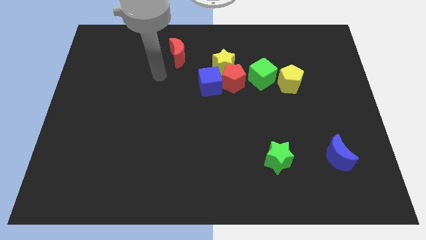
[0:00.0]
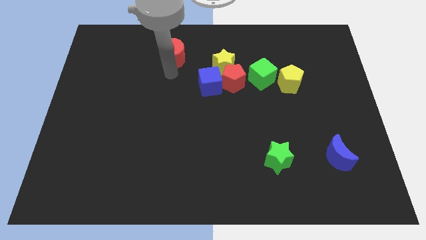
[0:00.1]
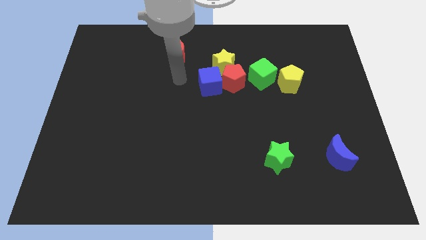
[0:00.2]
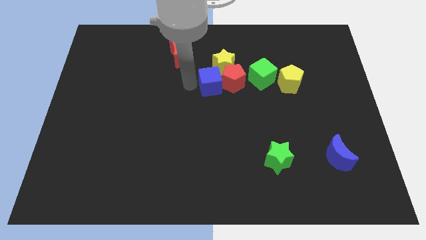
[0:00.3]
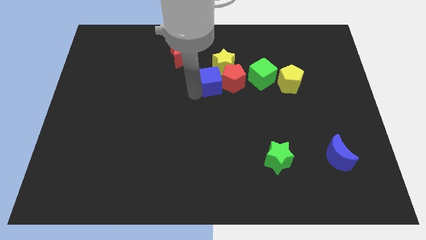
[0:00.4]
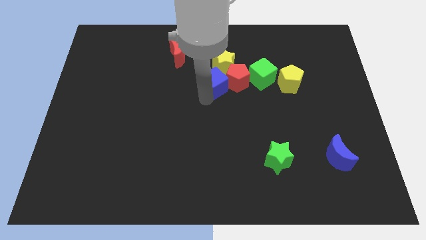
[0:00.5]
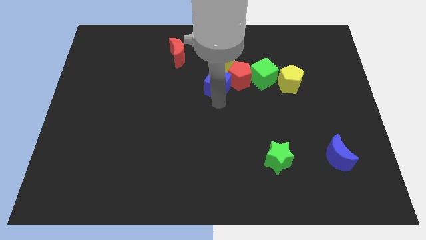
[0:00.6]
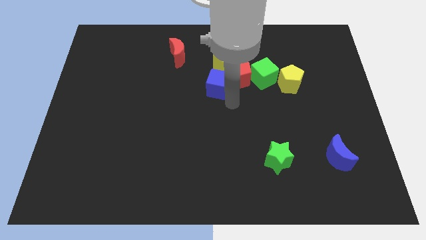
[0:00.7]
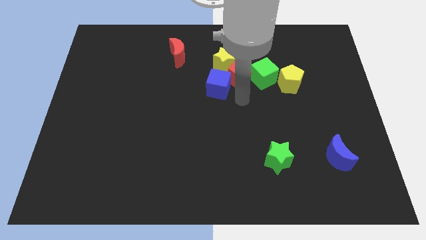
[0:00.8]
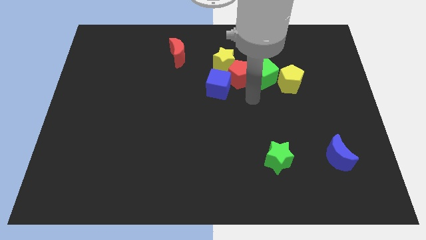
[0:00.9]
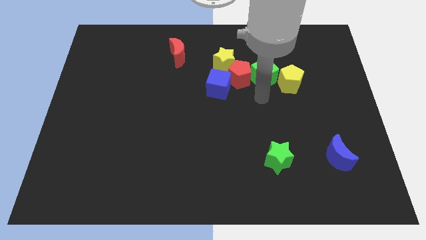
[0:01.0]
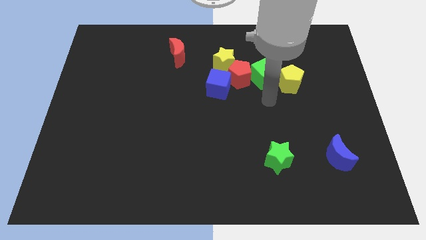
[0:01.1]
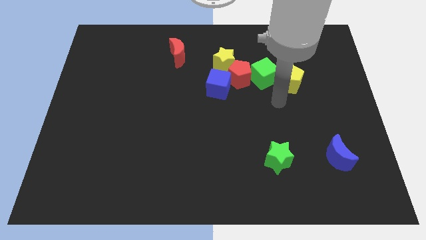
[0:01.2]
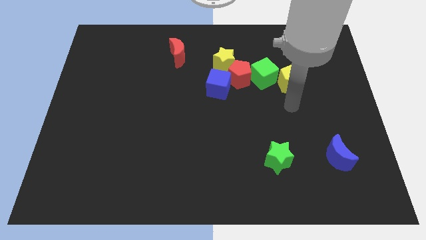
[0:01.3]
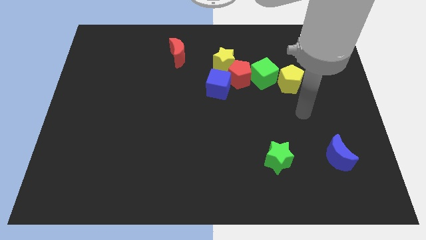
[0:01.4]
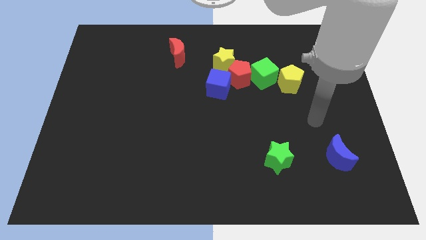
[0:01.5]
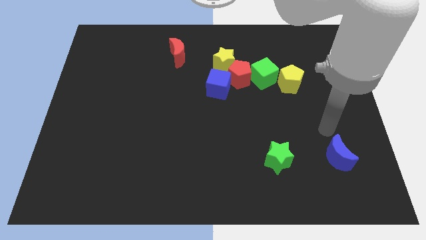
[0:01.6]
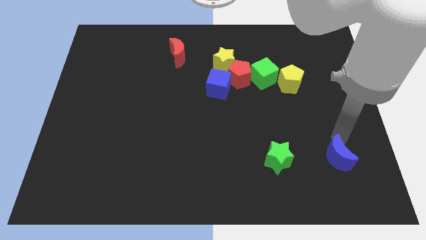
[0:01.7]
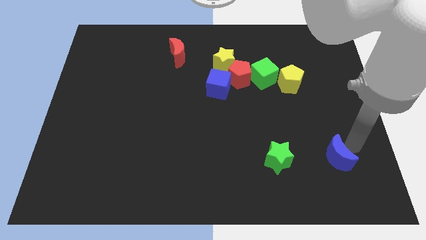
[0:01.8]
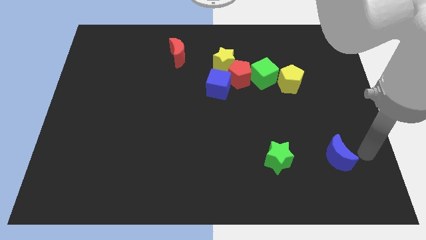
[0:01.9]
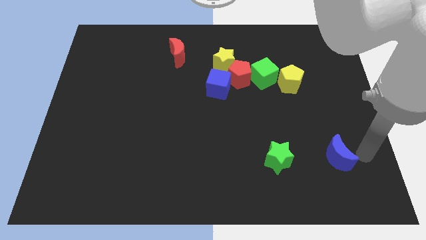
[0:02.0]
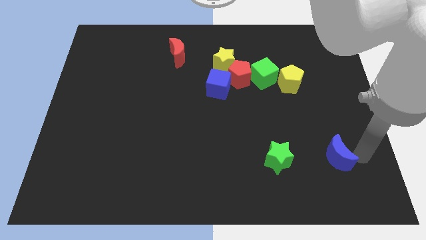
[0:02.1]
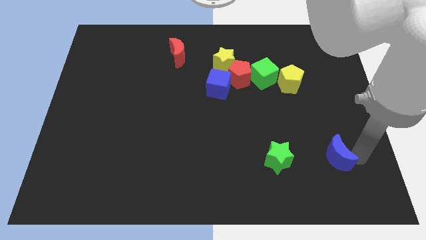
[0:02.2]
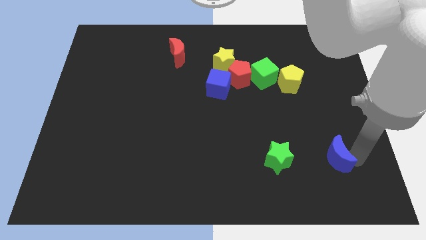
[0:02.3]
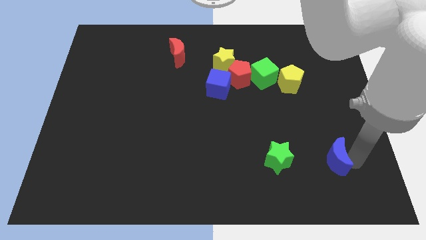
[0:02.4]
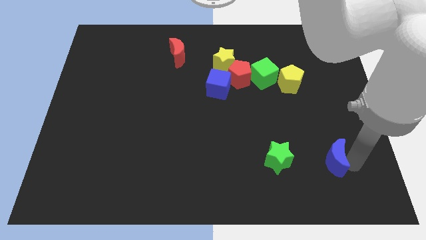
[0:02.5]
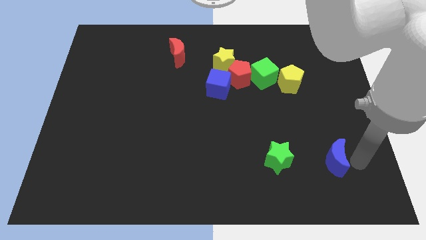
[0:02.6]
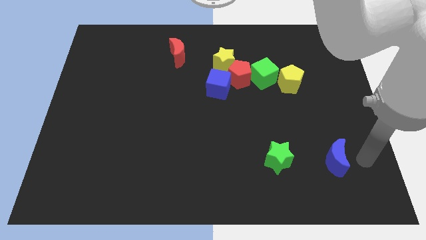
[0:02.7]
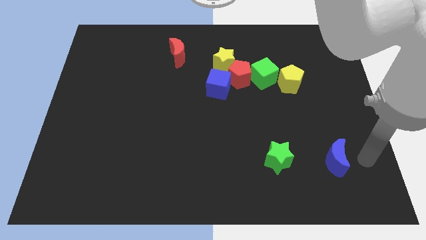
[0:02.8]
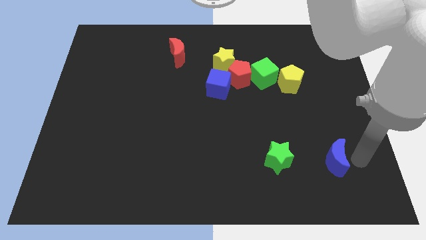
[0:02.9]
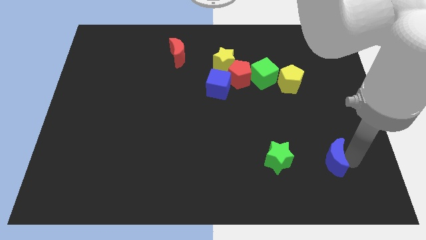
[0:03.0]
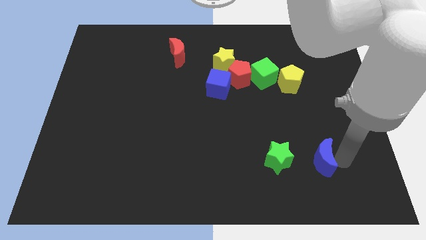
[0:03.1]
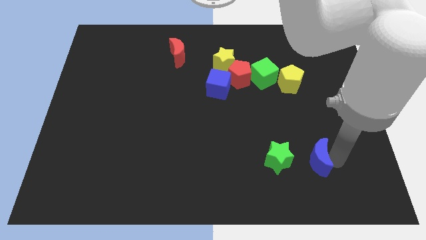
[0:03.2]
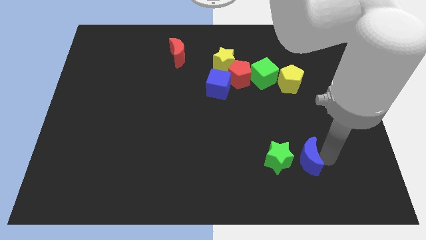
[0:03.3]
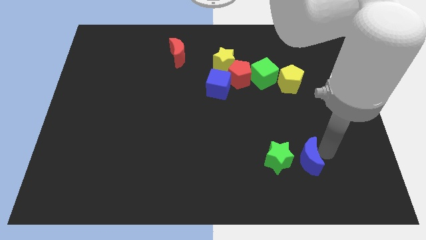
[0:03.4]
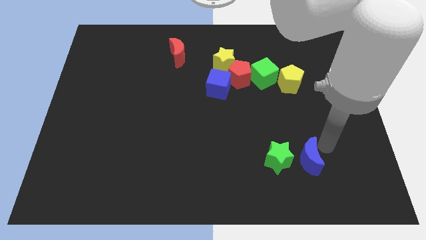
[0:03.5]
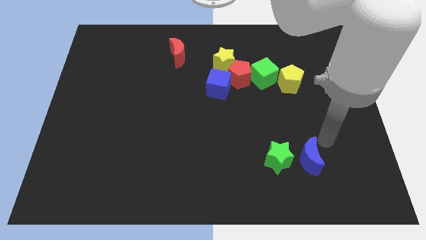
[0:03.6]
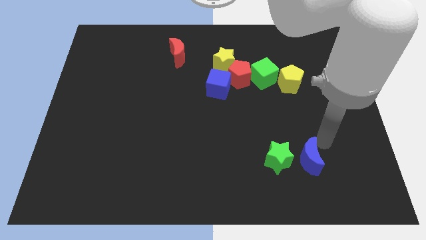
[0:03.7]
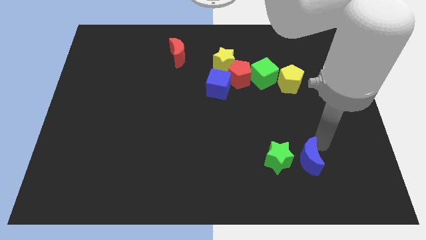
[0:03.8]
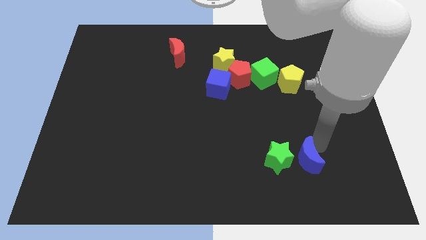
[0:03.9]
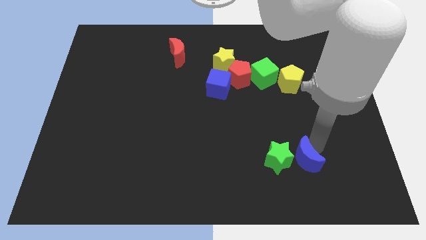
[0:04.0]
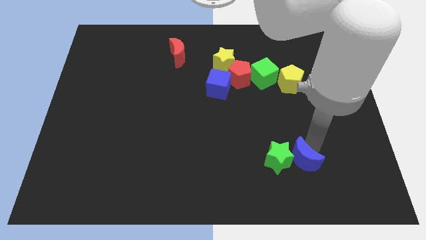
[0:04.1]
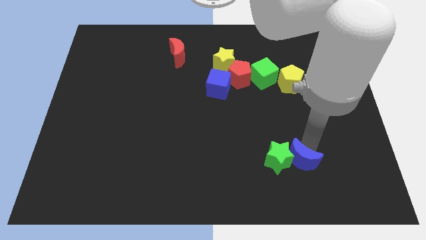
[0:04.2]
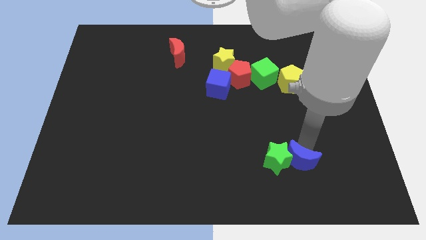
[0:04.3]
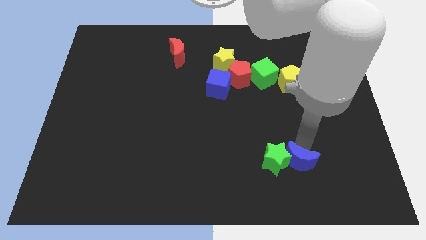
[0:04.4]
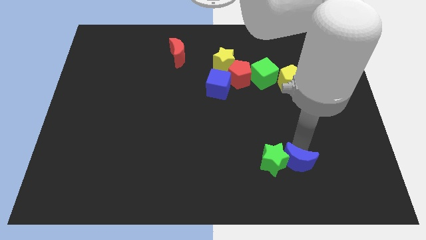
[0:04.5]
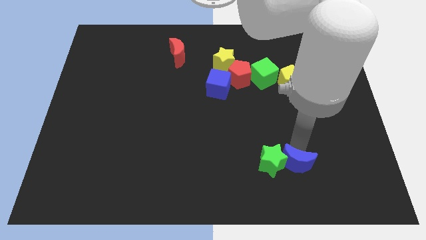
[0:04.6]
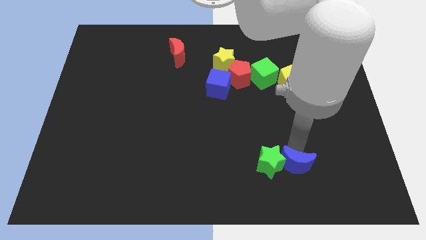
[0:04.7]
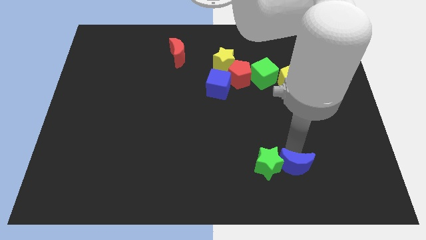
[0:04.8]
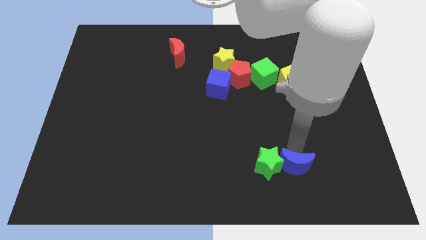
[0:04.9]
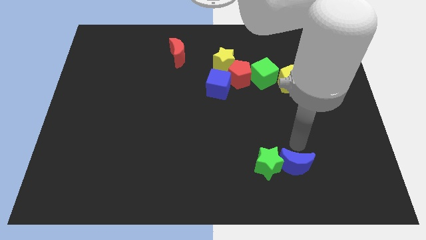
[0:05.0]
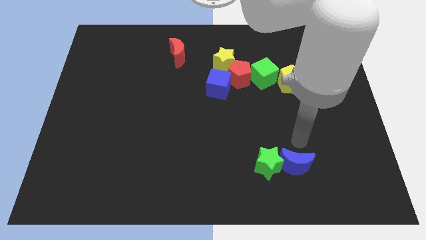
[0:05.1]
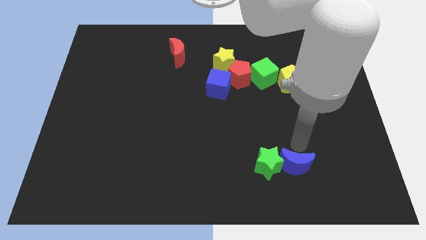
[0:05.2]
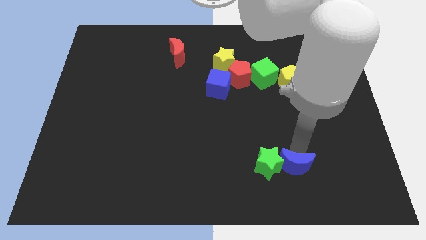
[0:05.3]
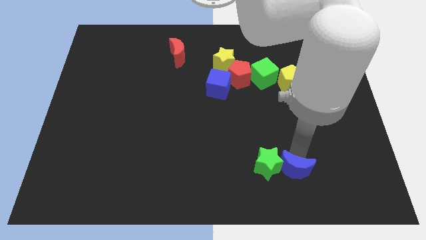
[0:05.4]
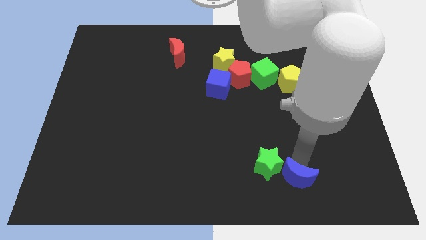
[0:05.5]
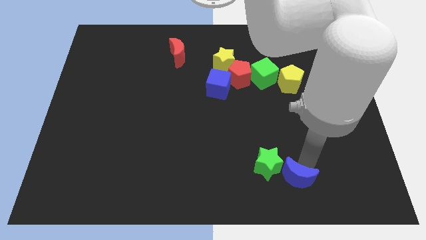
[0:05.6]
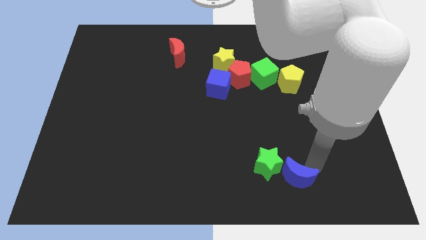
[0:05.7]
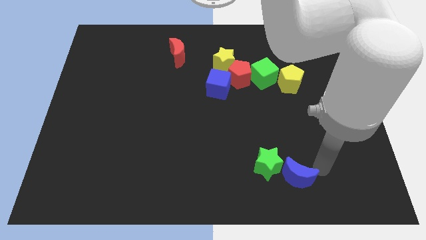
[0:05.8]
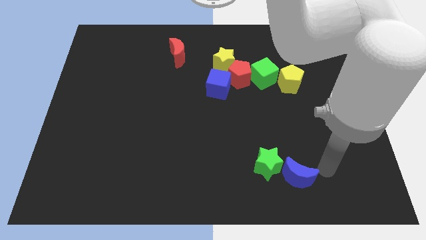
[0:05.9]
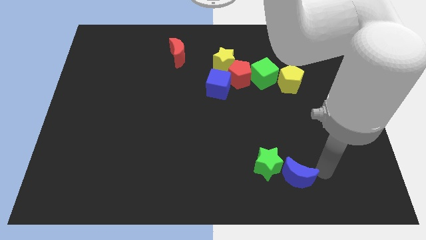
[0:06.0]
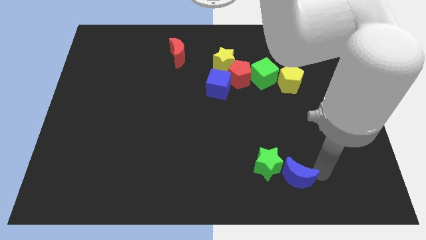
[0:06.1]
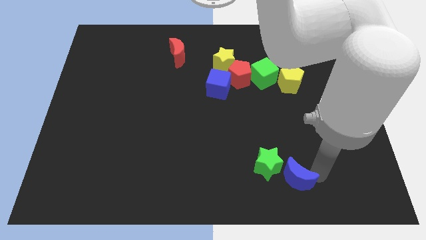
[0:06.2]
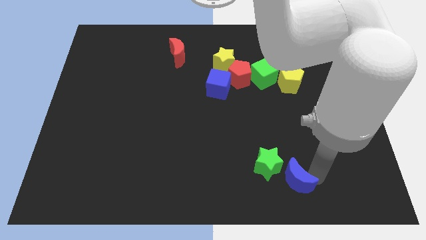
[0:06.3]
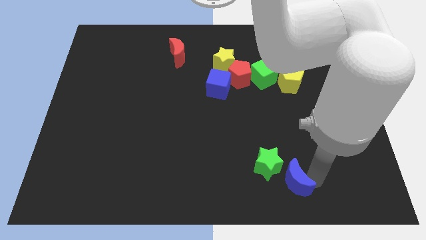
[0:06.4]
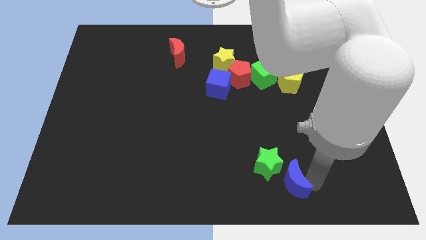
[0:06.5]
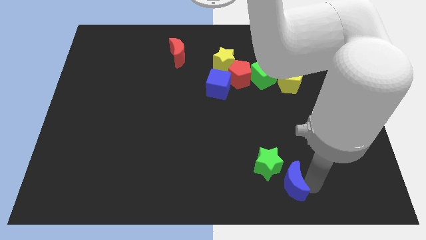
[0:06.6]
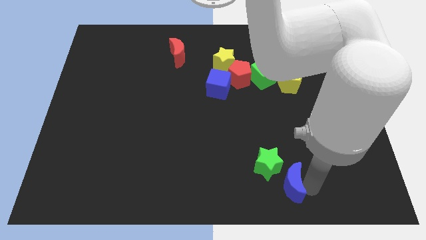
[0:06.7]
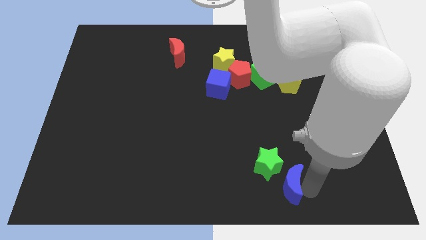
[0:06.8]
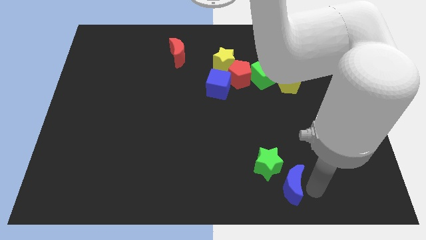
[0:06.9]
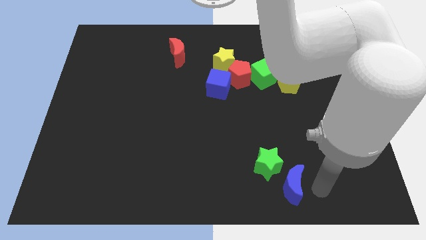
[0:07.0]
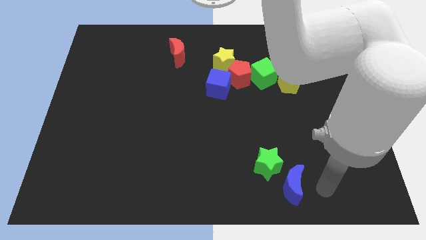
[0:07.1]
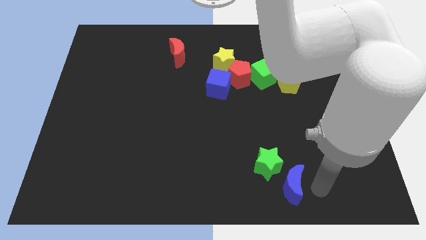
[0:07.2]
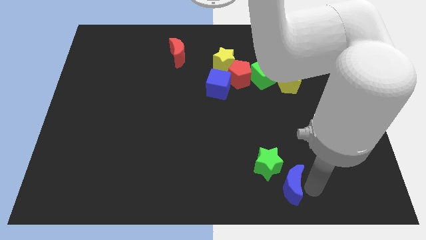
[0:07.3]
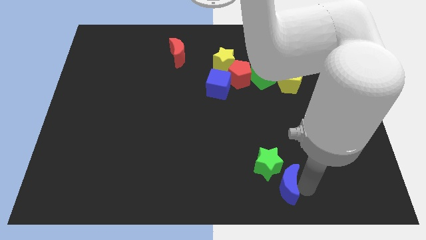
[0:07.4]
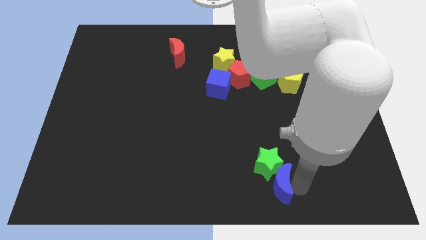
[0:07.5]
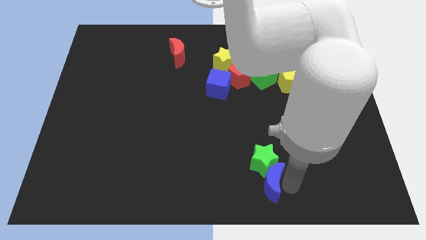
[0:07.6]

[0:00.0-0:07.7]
push the blue moon to the bottom
